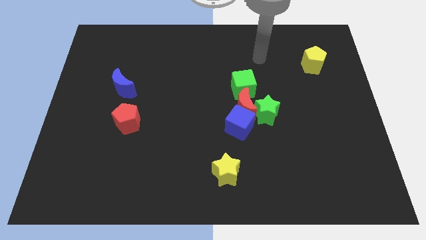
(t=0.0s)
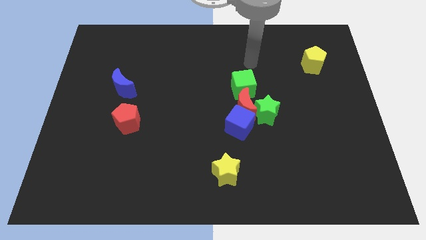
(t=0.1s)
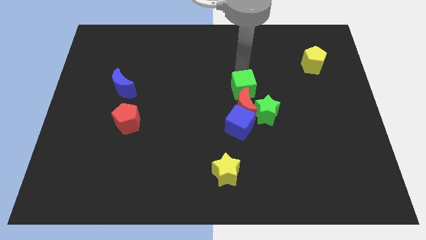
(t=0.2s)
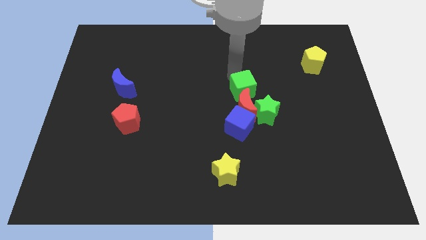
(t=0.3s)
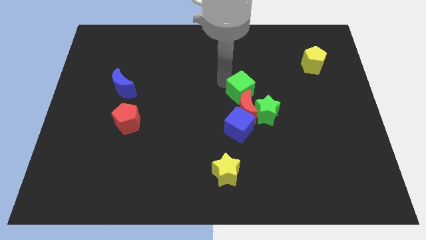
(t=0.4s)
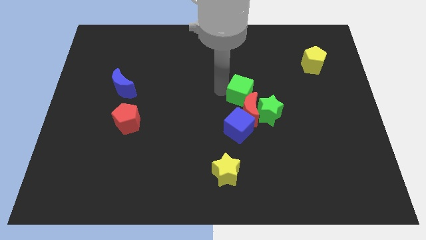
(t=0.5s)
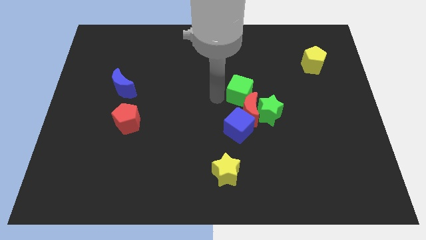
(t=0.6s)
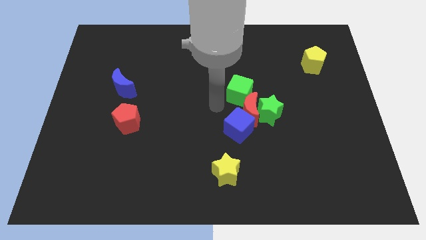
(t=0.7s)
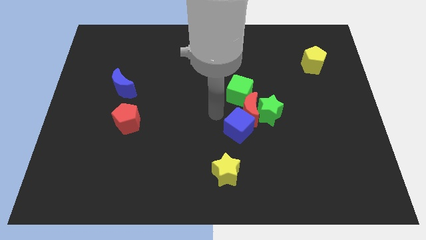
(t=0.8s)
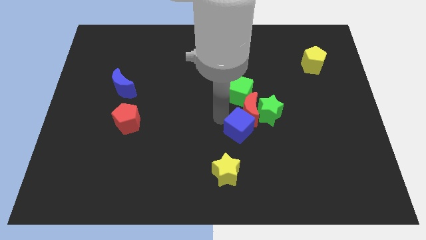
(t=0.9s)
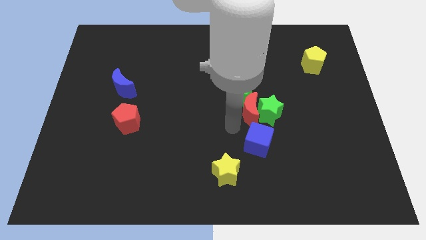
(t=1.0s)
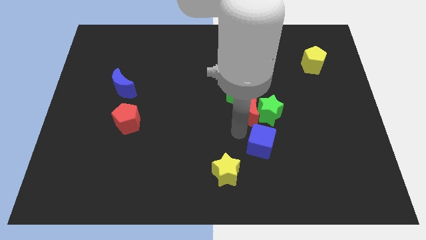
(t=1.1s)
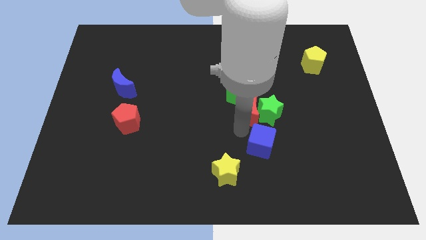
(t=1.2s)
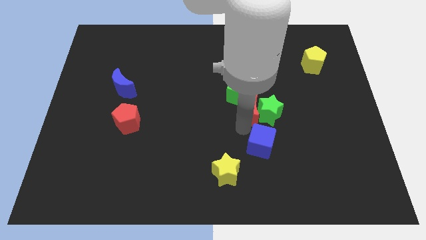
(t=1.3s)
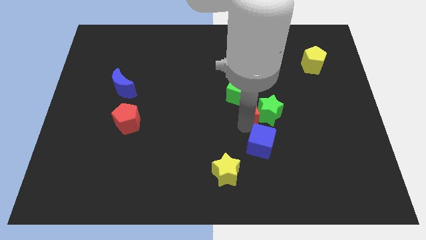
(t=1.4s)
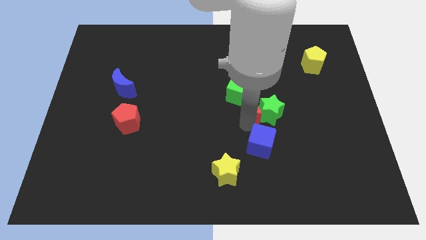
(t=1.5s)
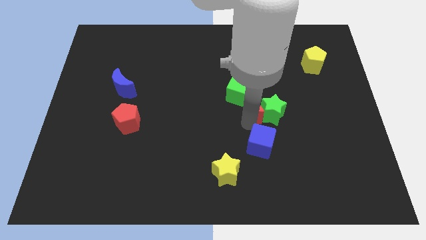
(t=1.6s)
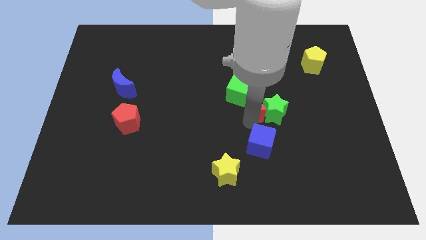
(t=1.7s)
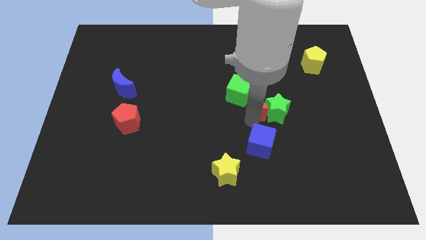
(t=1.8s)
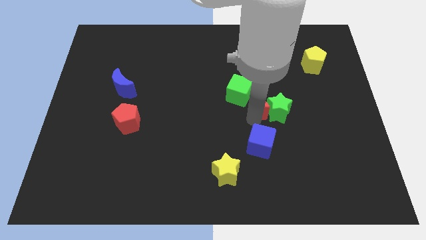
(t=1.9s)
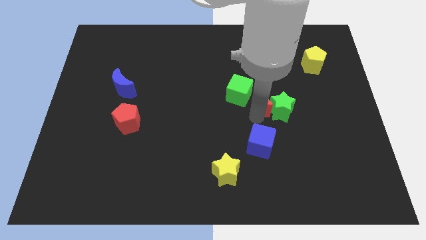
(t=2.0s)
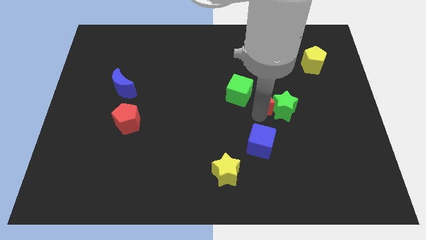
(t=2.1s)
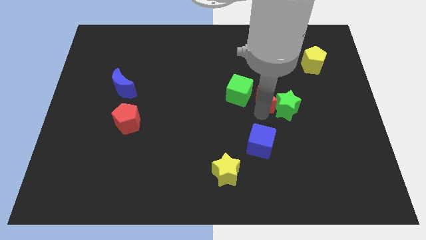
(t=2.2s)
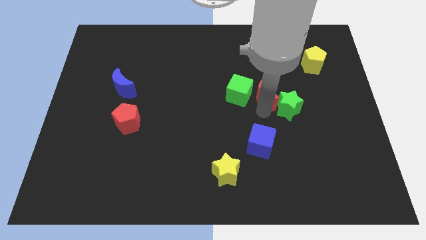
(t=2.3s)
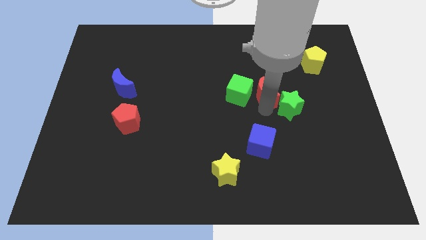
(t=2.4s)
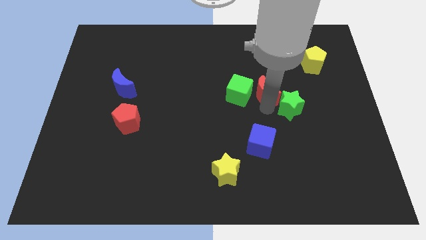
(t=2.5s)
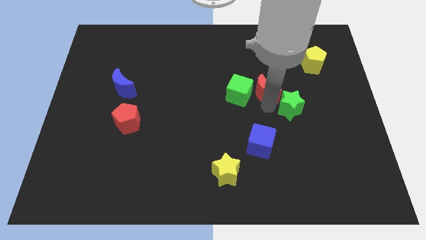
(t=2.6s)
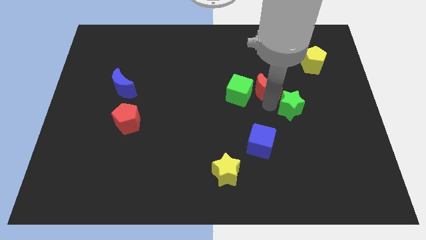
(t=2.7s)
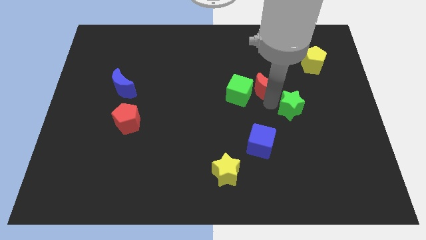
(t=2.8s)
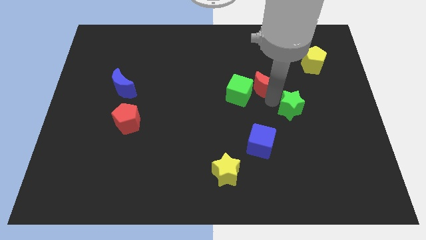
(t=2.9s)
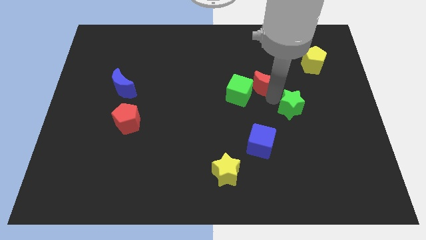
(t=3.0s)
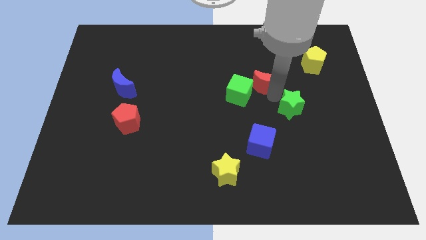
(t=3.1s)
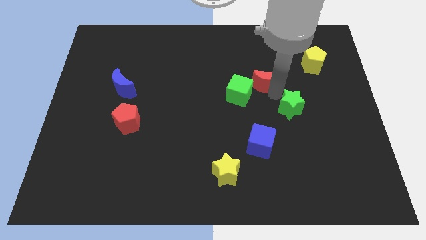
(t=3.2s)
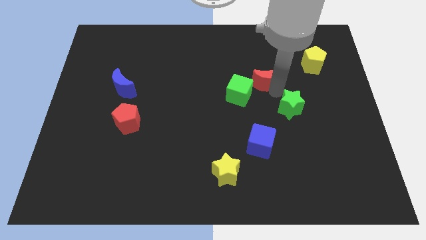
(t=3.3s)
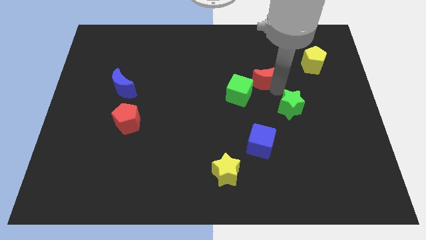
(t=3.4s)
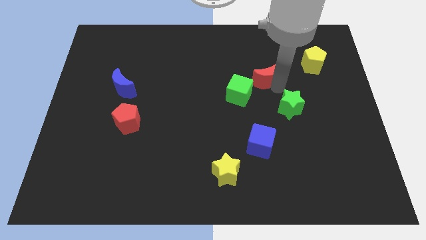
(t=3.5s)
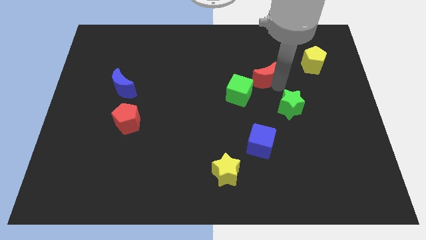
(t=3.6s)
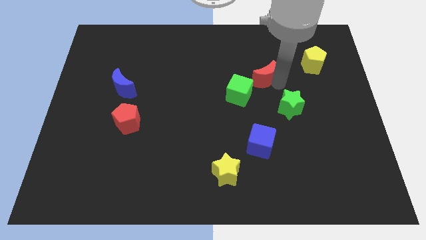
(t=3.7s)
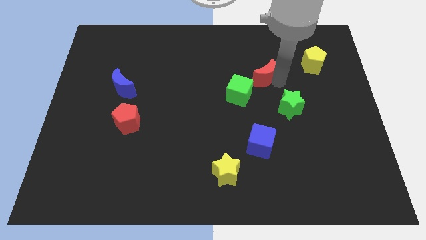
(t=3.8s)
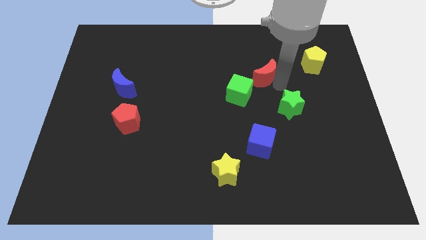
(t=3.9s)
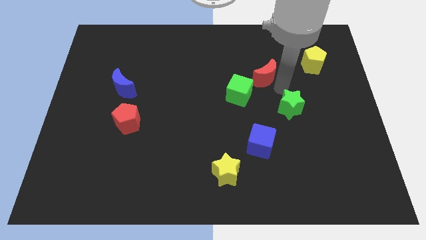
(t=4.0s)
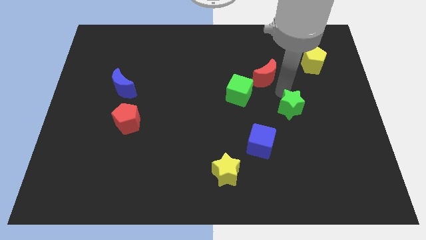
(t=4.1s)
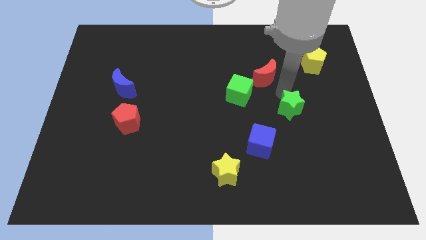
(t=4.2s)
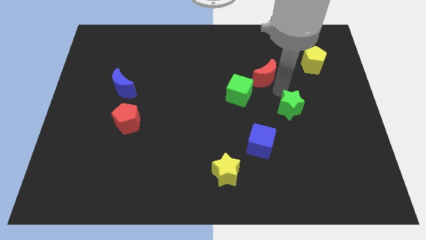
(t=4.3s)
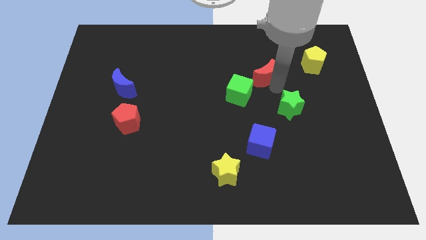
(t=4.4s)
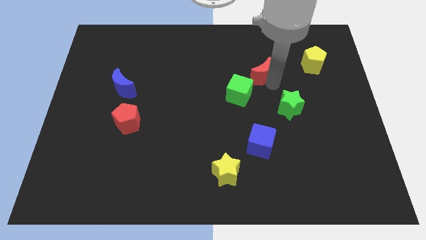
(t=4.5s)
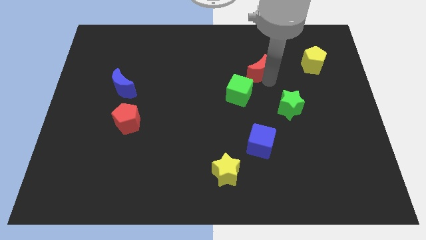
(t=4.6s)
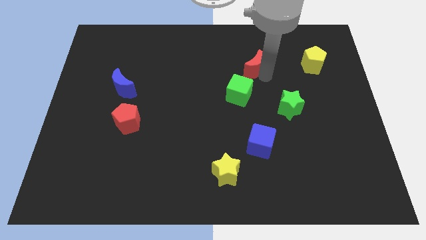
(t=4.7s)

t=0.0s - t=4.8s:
push the red moon above the green cube

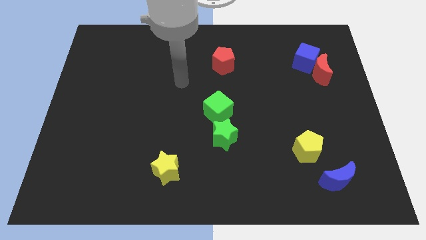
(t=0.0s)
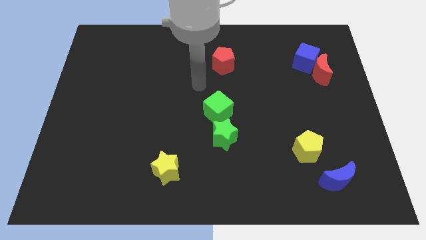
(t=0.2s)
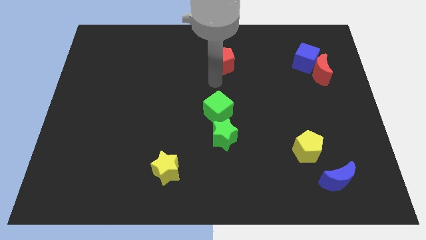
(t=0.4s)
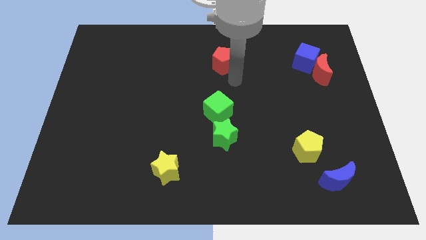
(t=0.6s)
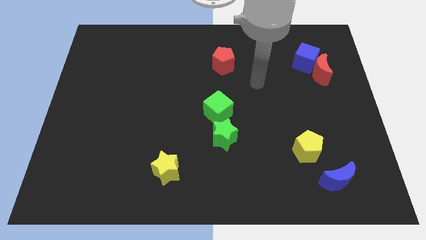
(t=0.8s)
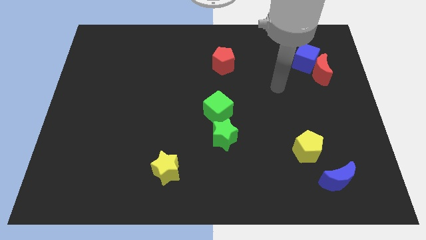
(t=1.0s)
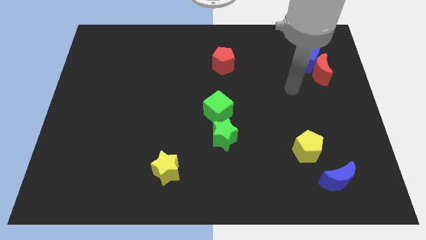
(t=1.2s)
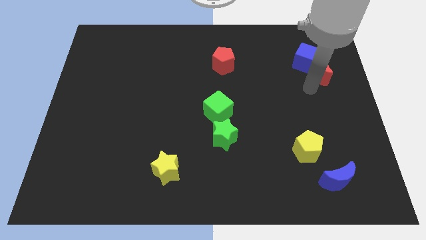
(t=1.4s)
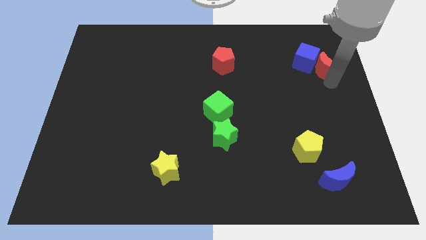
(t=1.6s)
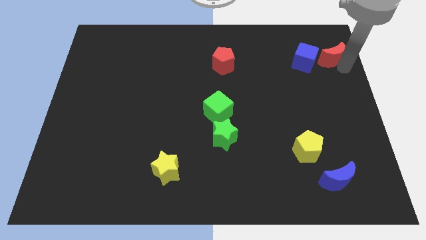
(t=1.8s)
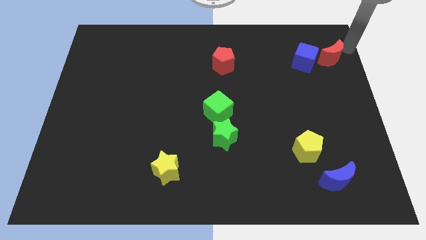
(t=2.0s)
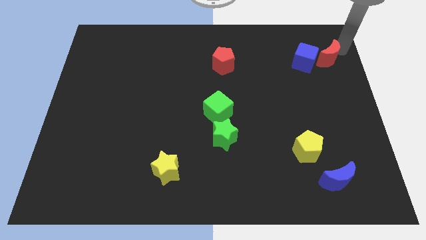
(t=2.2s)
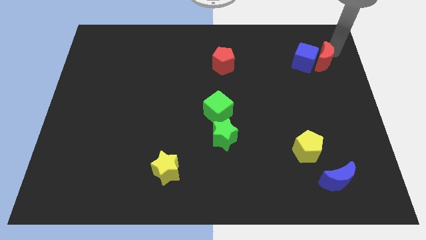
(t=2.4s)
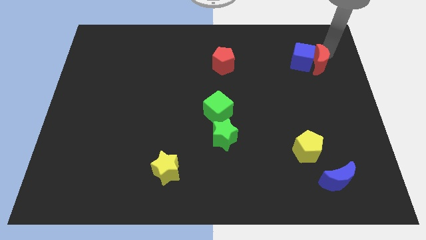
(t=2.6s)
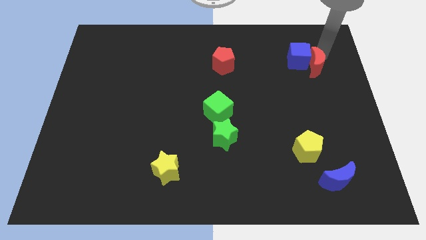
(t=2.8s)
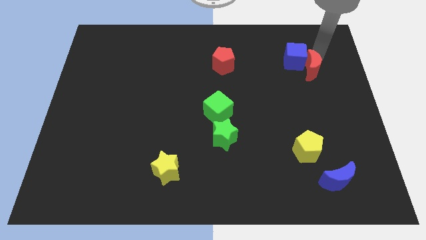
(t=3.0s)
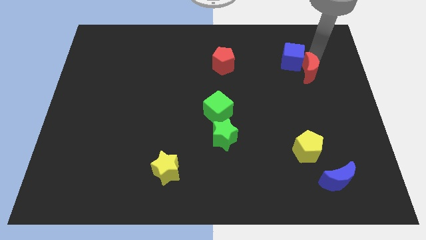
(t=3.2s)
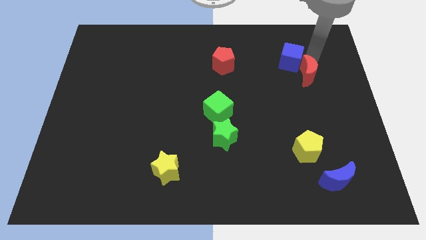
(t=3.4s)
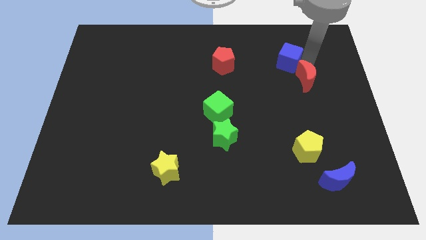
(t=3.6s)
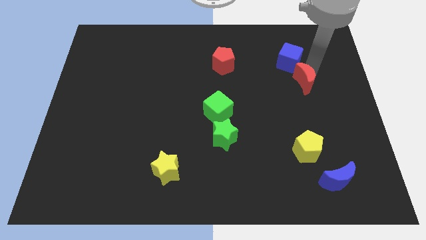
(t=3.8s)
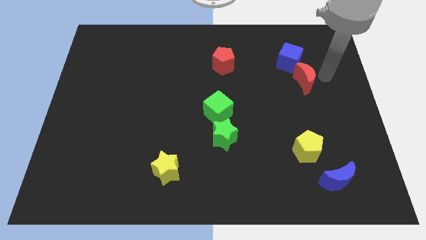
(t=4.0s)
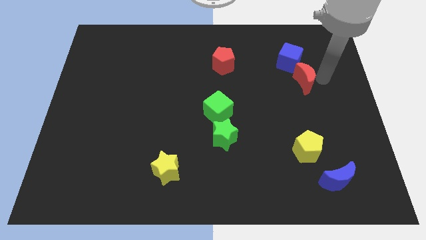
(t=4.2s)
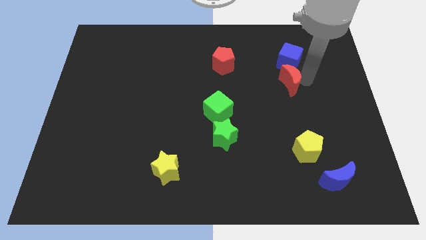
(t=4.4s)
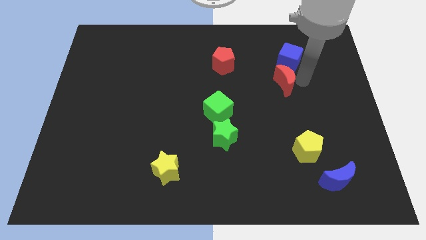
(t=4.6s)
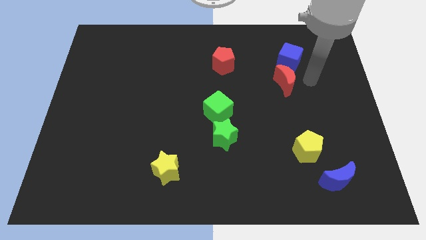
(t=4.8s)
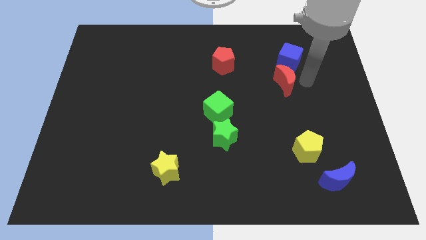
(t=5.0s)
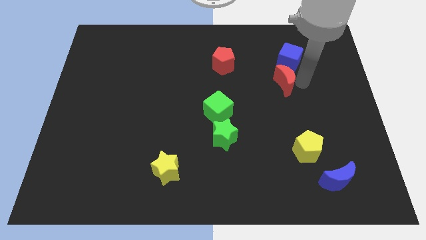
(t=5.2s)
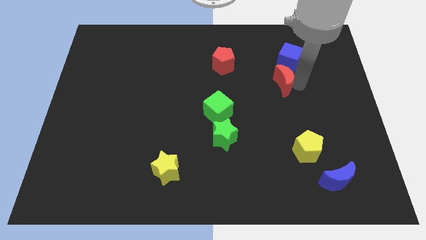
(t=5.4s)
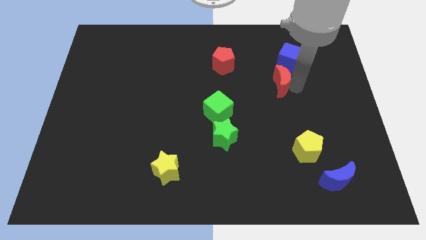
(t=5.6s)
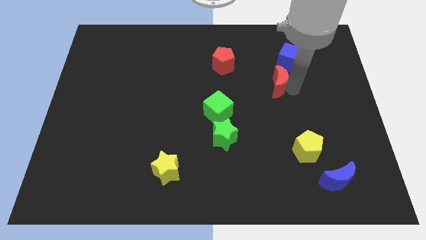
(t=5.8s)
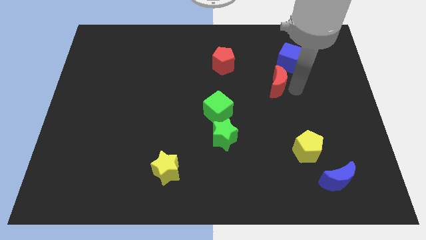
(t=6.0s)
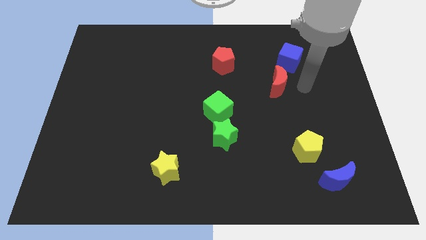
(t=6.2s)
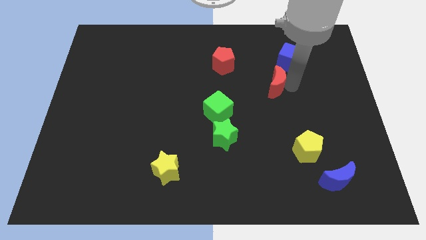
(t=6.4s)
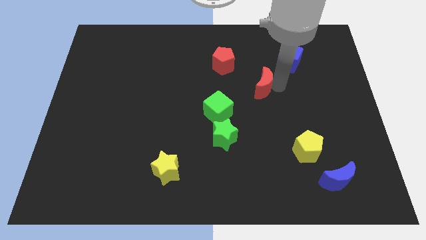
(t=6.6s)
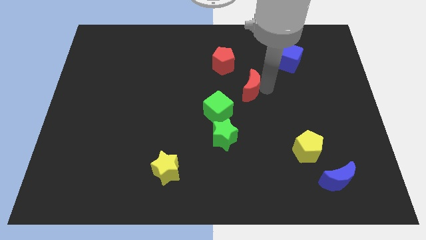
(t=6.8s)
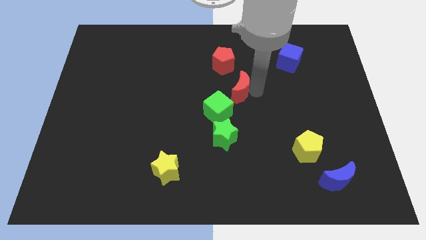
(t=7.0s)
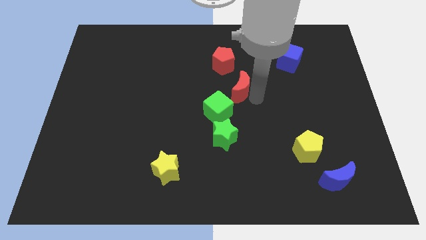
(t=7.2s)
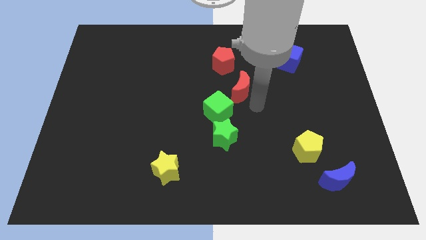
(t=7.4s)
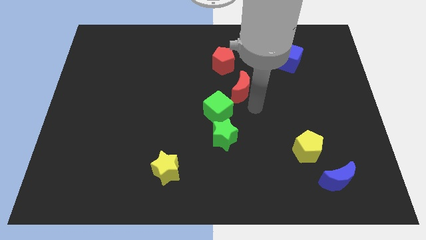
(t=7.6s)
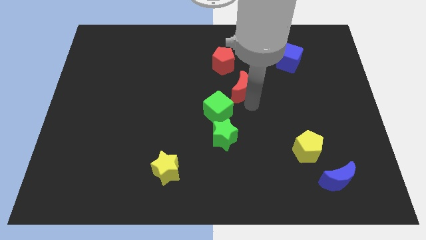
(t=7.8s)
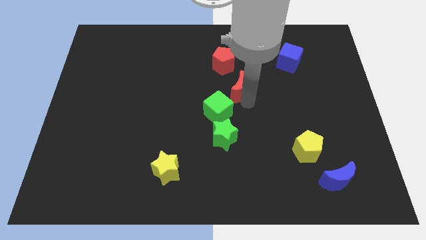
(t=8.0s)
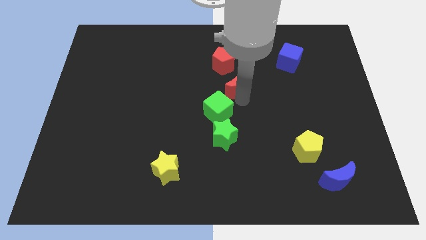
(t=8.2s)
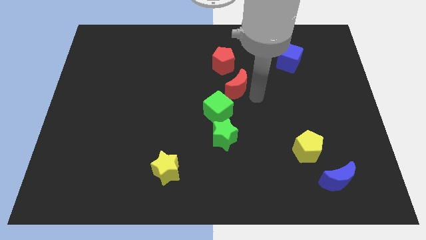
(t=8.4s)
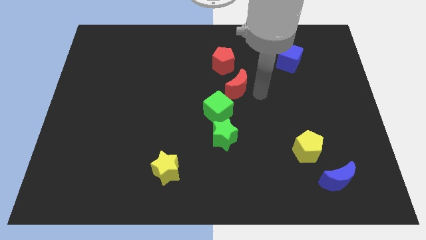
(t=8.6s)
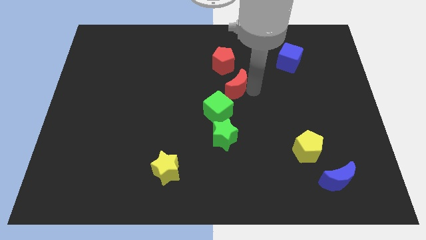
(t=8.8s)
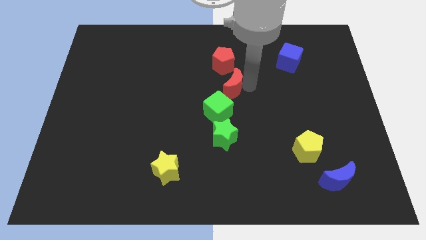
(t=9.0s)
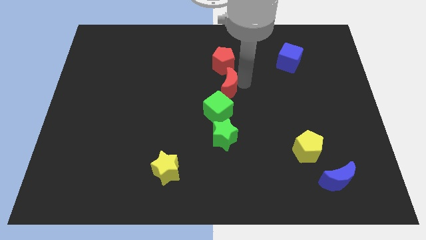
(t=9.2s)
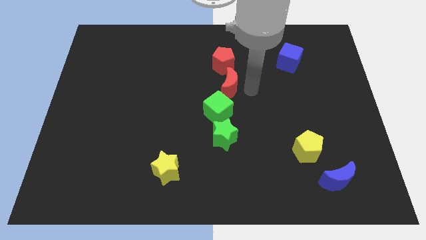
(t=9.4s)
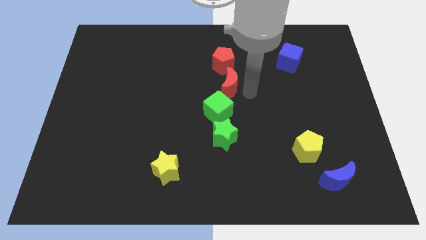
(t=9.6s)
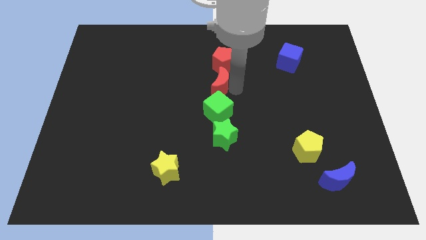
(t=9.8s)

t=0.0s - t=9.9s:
put the red moon to the bottom left of the red pentagon
